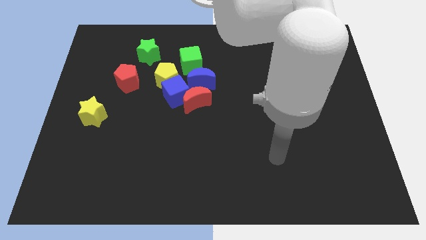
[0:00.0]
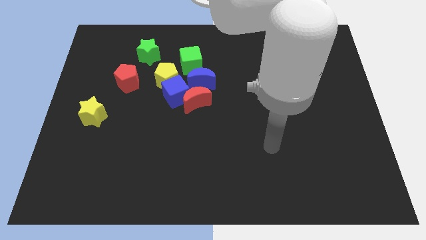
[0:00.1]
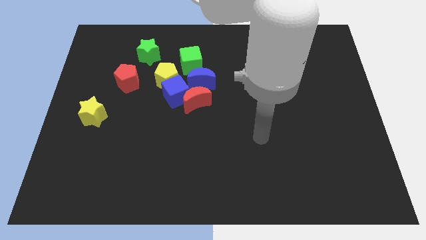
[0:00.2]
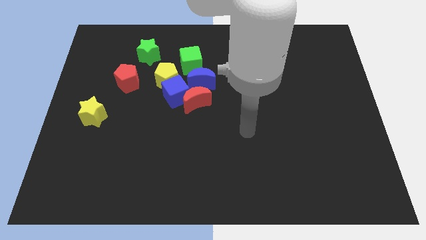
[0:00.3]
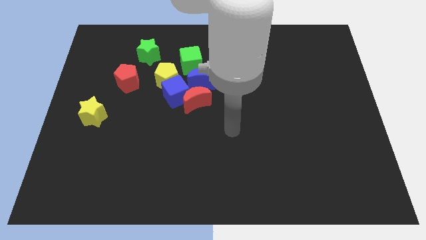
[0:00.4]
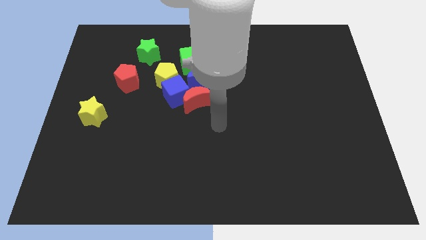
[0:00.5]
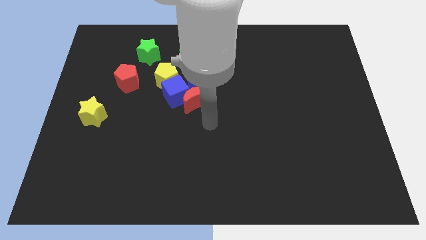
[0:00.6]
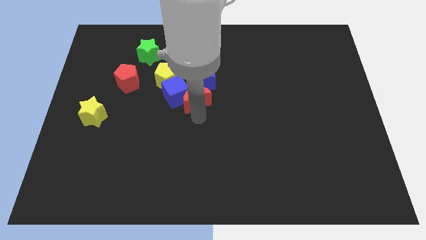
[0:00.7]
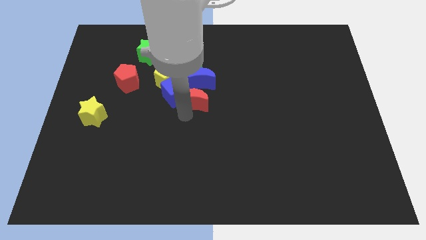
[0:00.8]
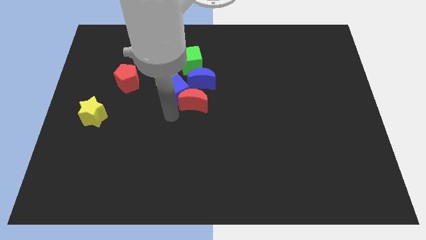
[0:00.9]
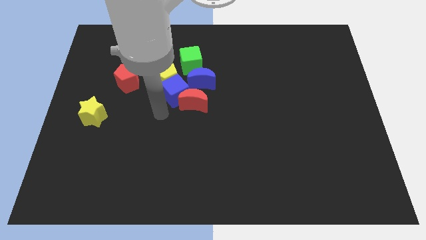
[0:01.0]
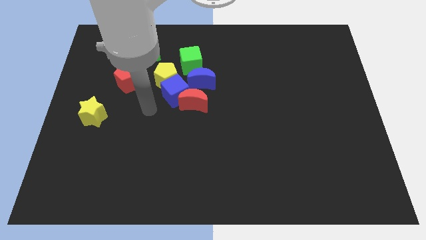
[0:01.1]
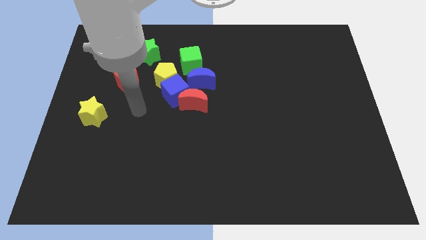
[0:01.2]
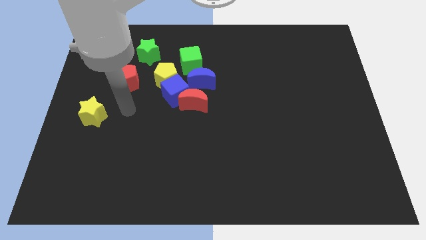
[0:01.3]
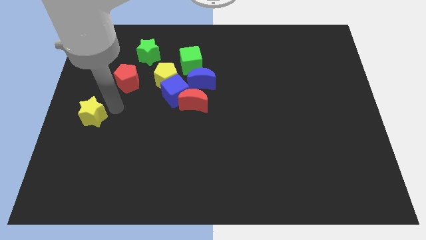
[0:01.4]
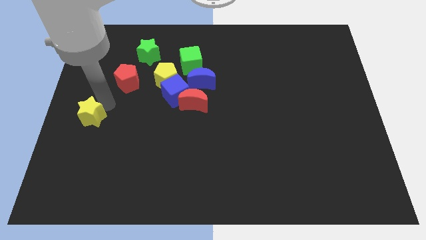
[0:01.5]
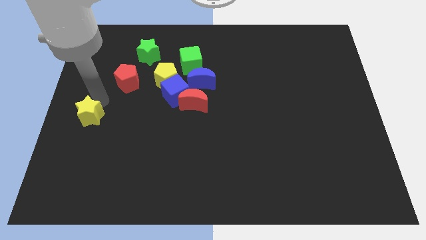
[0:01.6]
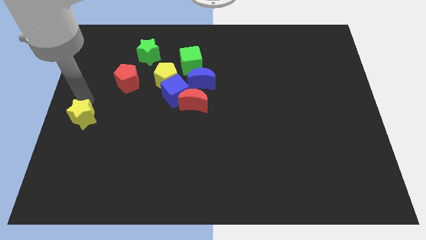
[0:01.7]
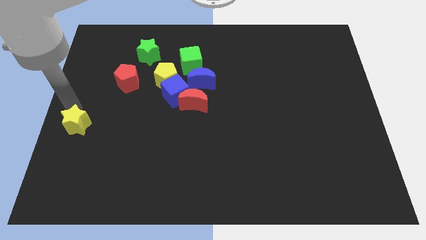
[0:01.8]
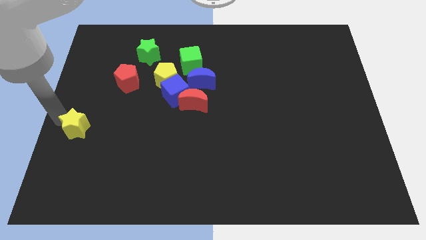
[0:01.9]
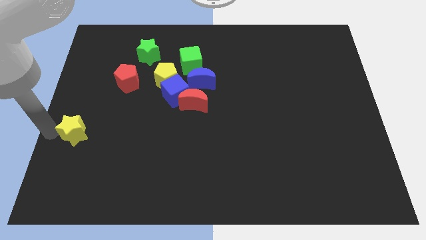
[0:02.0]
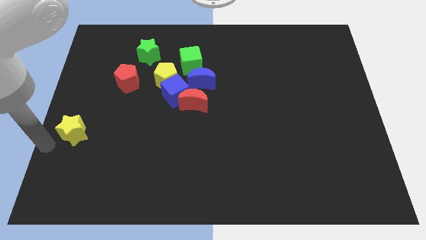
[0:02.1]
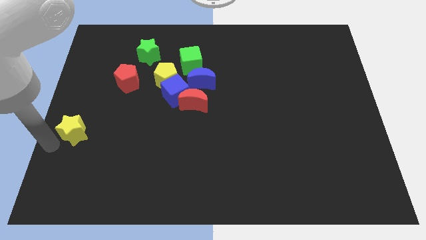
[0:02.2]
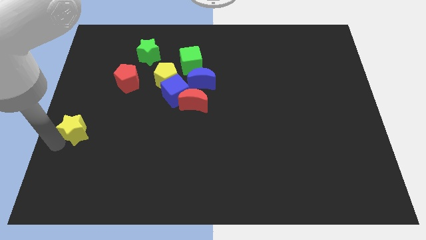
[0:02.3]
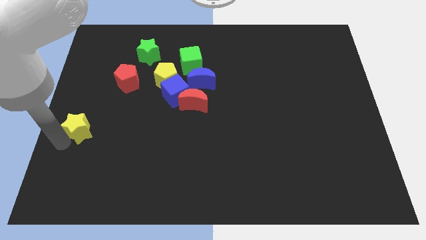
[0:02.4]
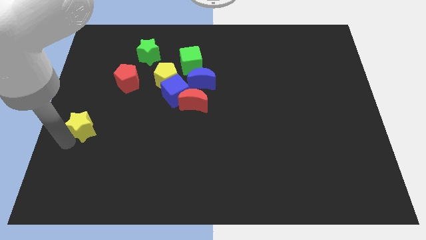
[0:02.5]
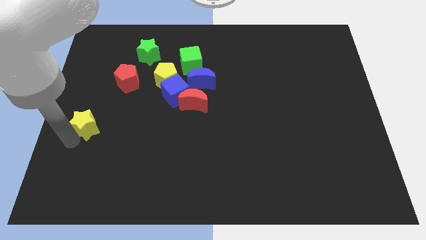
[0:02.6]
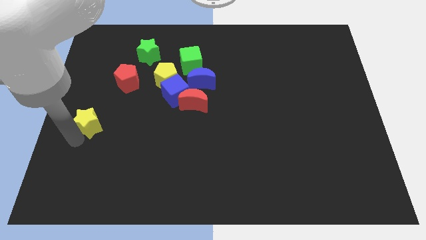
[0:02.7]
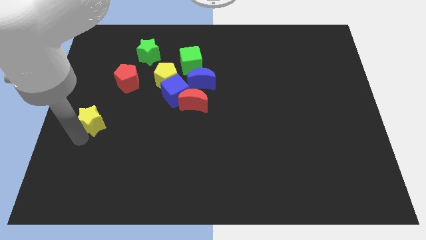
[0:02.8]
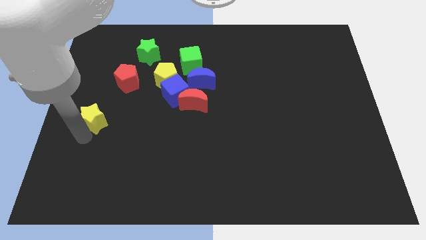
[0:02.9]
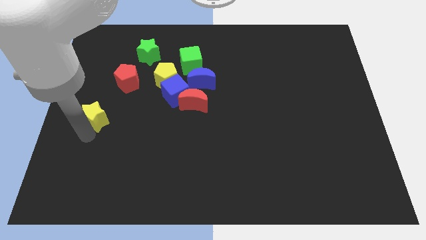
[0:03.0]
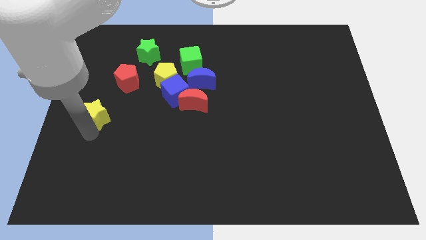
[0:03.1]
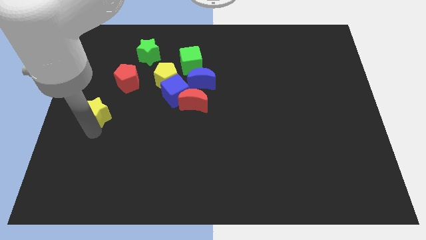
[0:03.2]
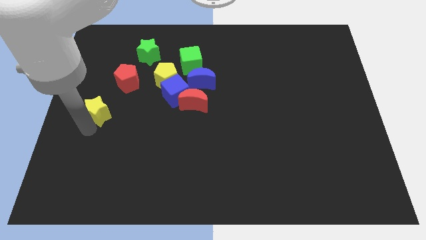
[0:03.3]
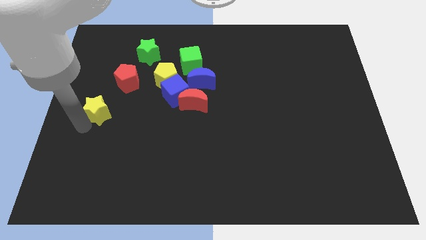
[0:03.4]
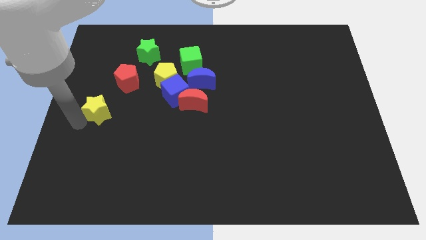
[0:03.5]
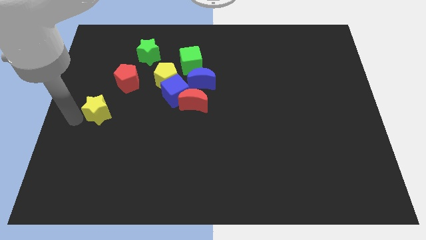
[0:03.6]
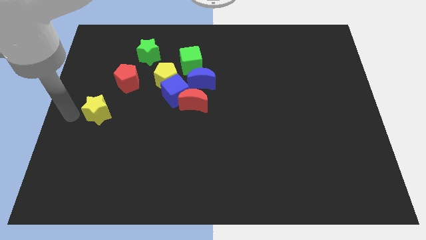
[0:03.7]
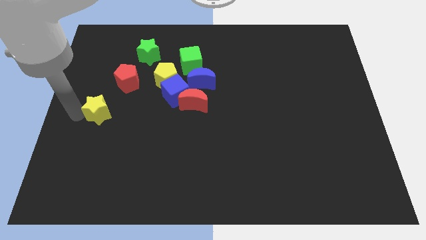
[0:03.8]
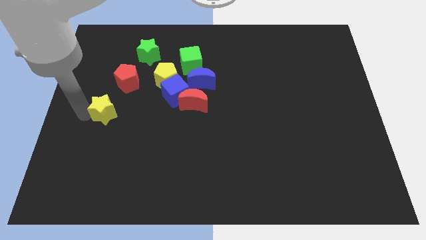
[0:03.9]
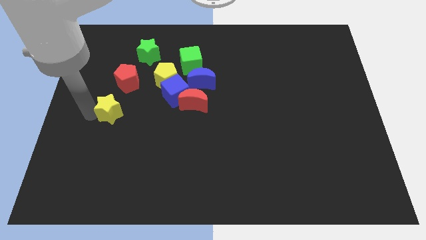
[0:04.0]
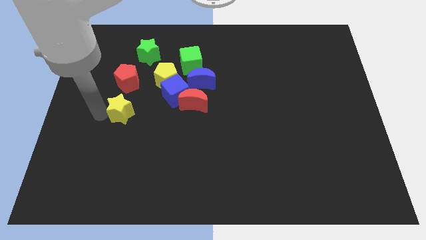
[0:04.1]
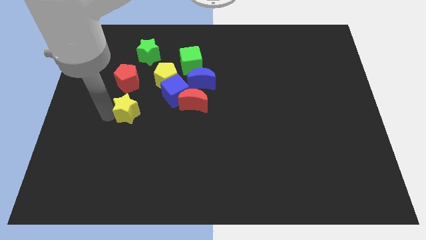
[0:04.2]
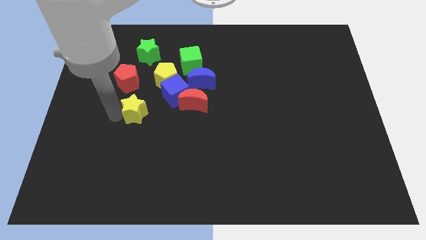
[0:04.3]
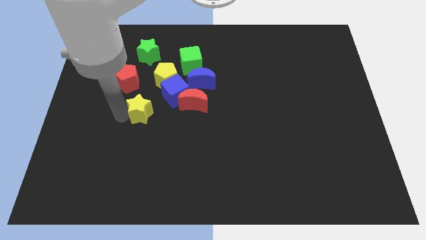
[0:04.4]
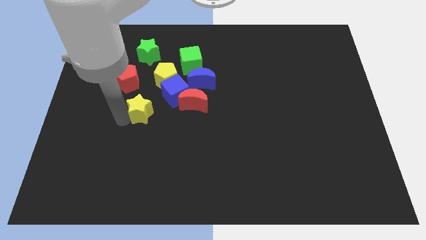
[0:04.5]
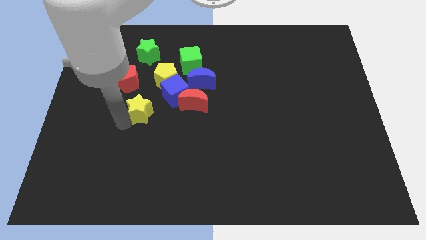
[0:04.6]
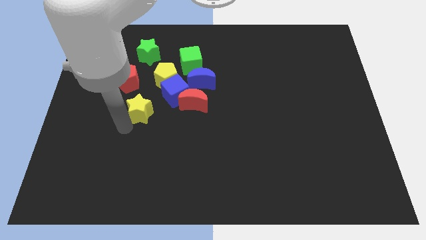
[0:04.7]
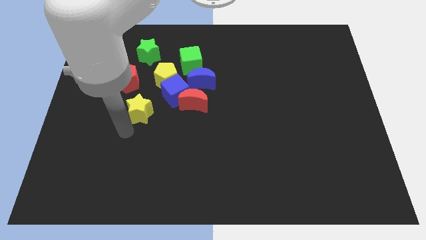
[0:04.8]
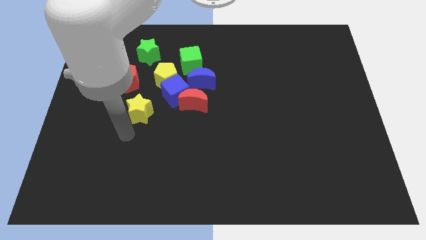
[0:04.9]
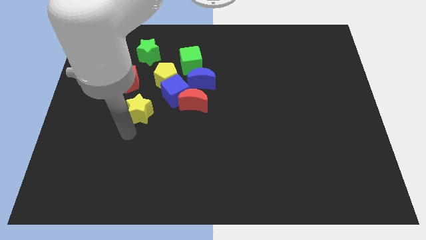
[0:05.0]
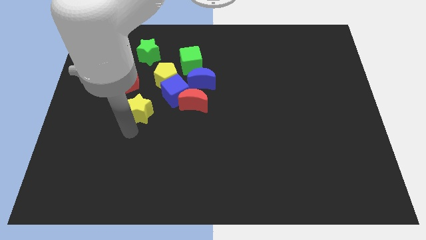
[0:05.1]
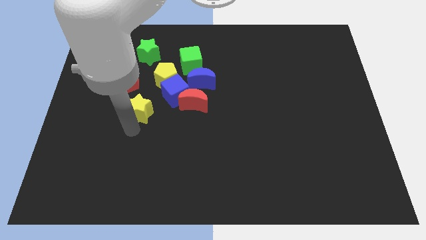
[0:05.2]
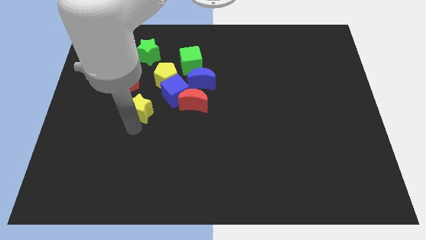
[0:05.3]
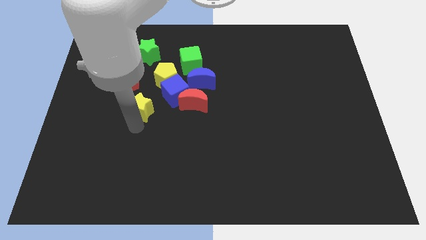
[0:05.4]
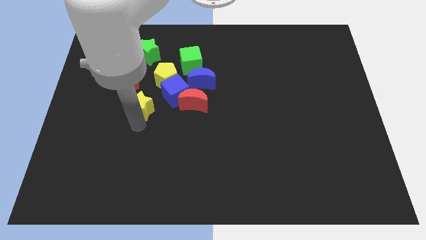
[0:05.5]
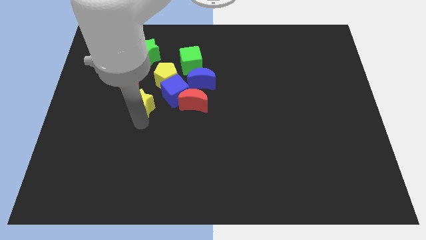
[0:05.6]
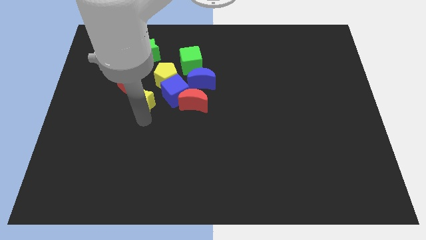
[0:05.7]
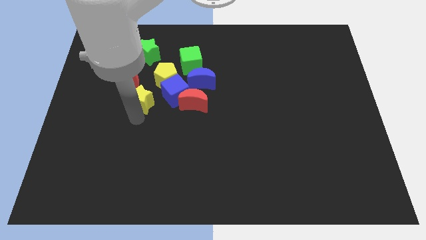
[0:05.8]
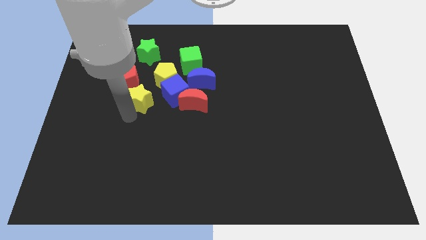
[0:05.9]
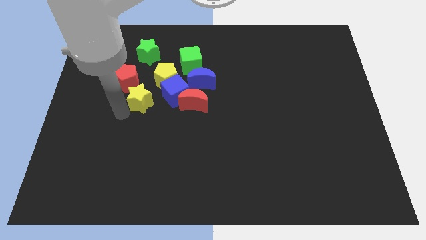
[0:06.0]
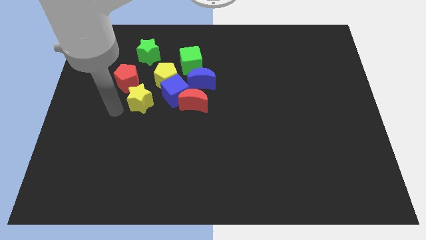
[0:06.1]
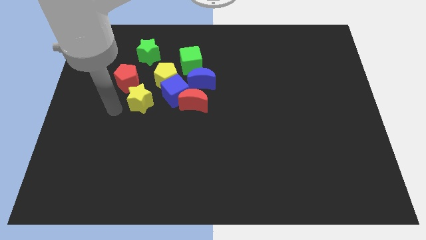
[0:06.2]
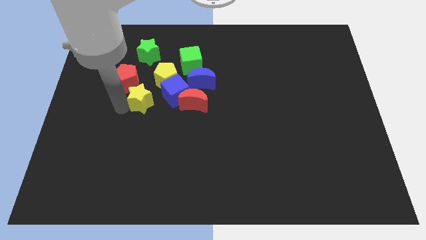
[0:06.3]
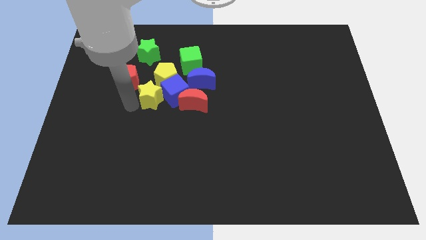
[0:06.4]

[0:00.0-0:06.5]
move the yellow star next to the blue cube
